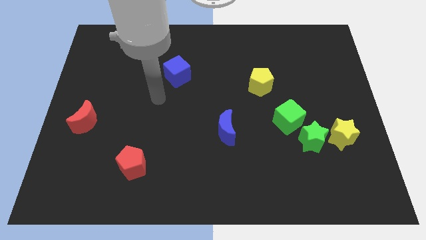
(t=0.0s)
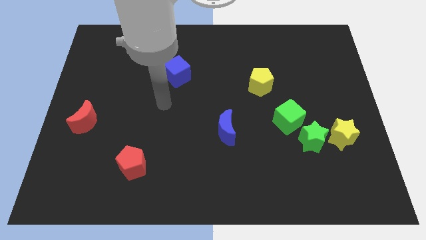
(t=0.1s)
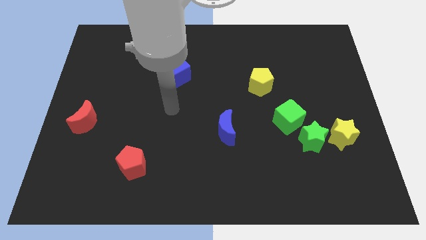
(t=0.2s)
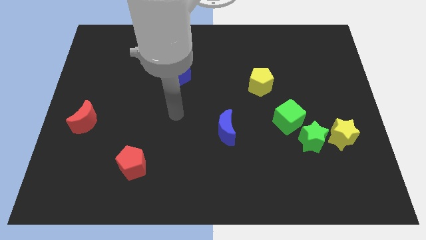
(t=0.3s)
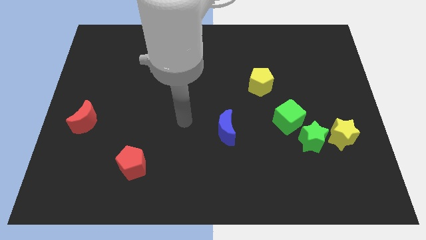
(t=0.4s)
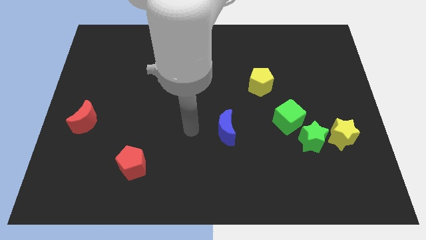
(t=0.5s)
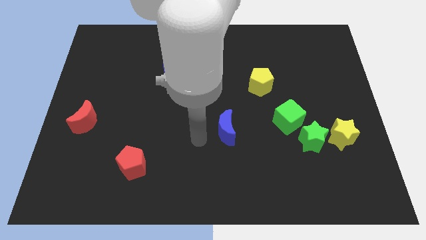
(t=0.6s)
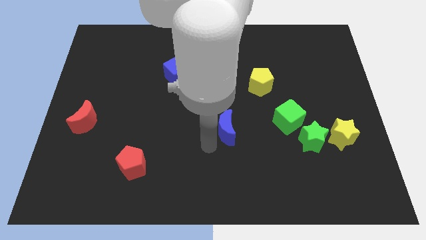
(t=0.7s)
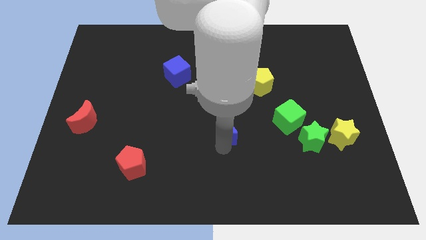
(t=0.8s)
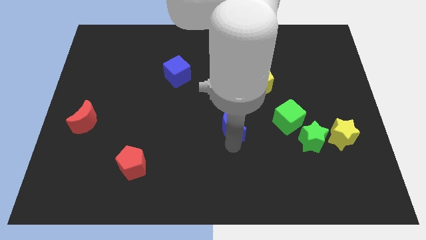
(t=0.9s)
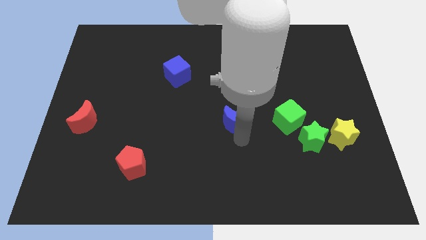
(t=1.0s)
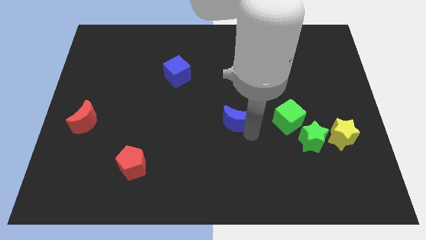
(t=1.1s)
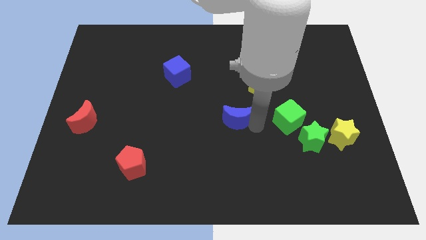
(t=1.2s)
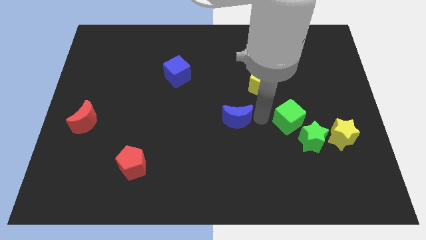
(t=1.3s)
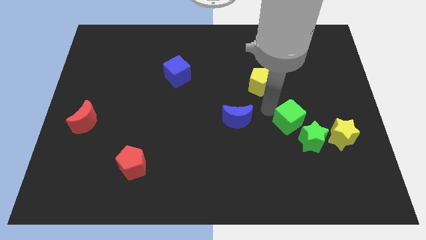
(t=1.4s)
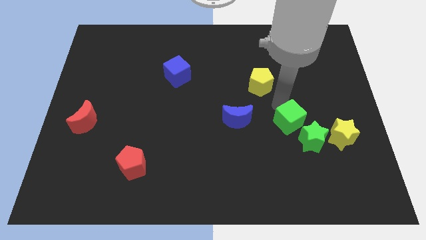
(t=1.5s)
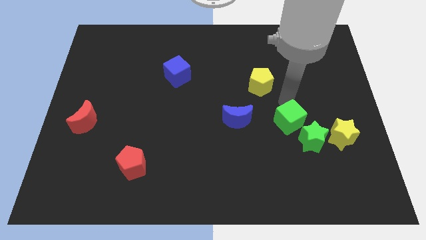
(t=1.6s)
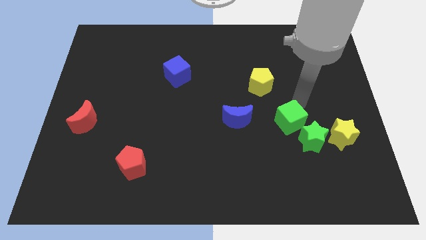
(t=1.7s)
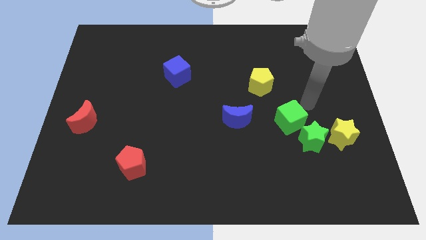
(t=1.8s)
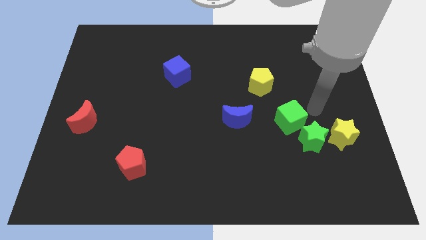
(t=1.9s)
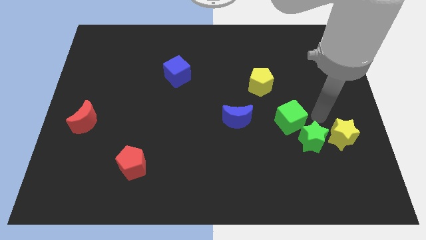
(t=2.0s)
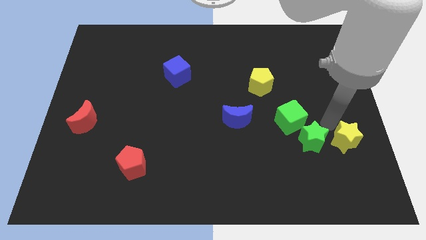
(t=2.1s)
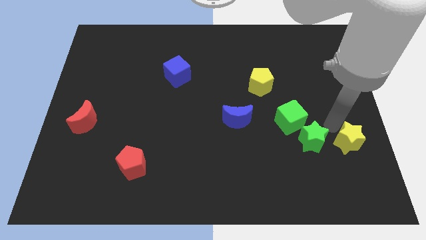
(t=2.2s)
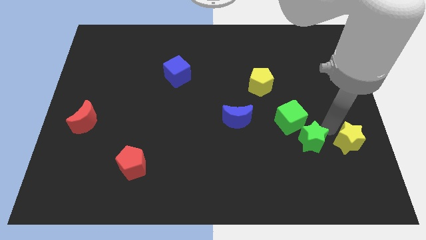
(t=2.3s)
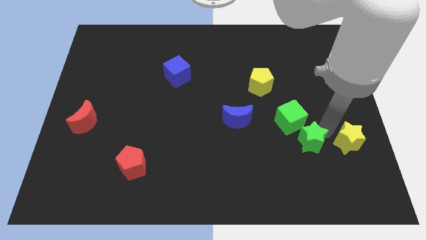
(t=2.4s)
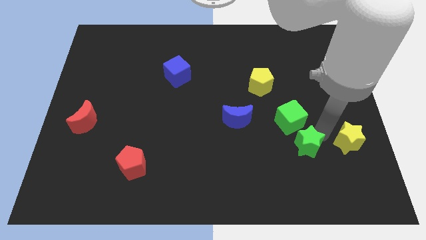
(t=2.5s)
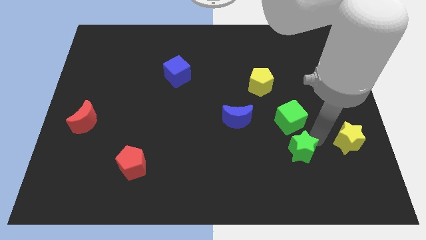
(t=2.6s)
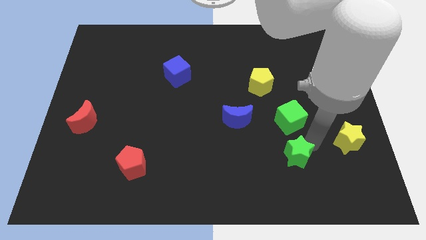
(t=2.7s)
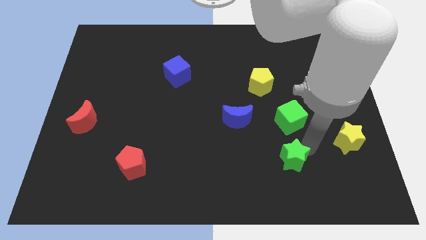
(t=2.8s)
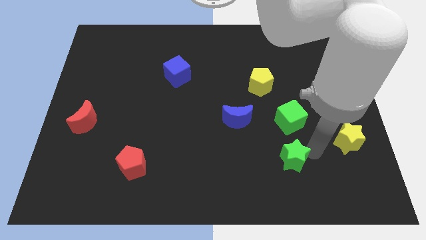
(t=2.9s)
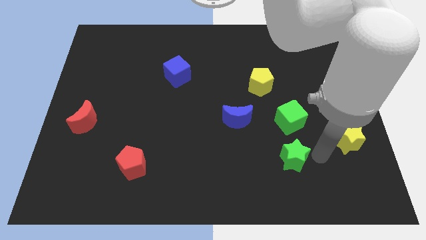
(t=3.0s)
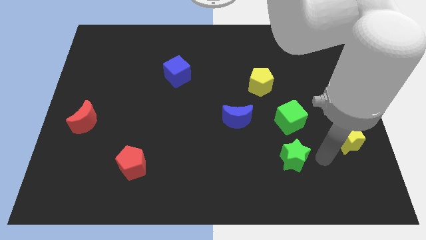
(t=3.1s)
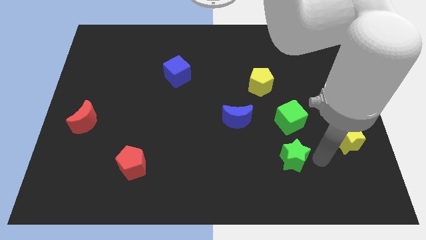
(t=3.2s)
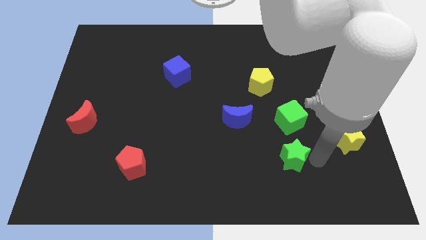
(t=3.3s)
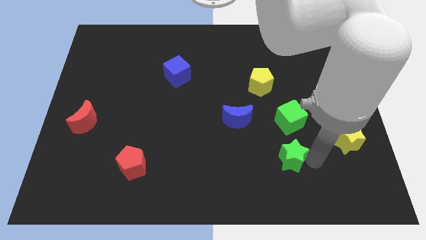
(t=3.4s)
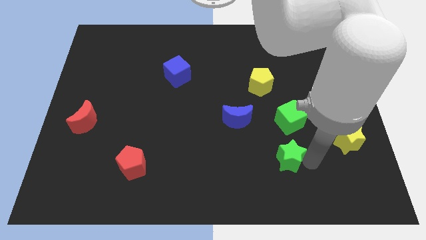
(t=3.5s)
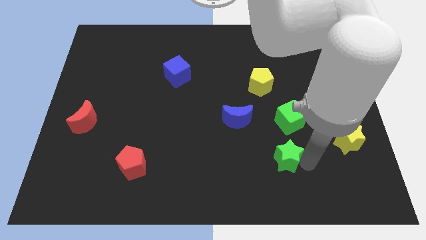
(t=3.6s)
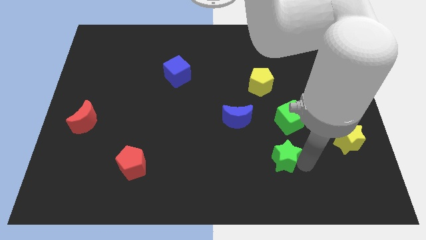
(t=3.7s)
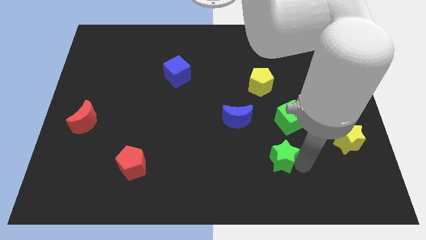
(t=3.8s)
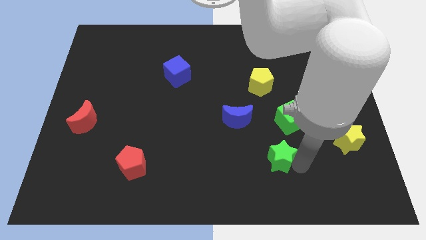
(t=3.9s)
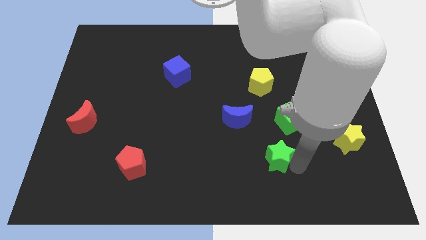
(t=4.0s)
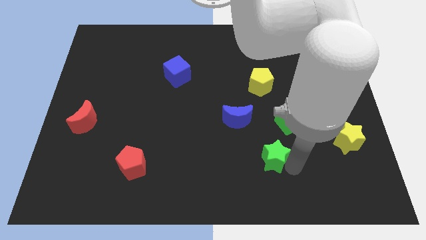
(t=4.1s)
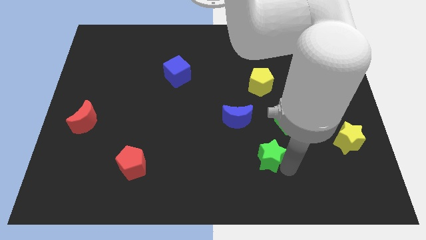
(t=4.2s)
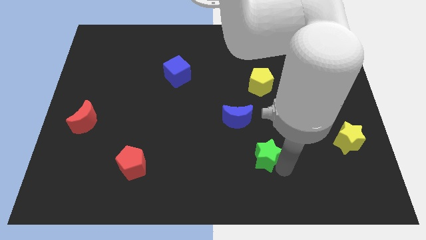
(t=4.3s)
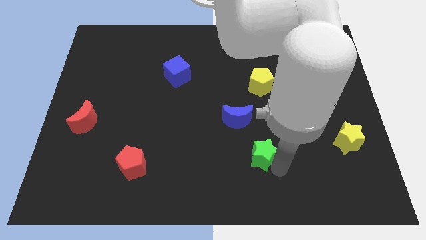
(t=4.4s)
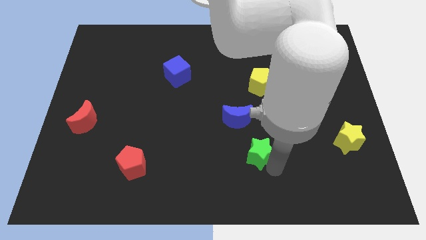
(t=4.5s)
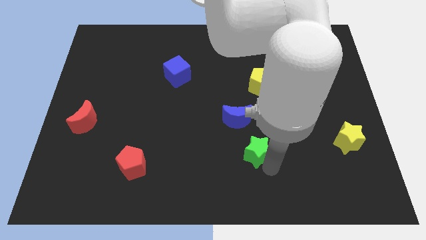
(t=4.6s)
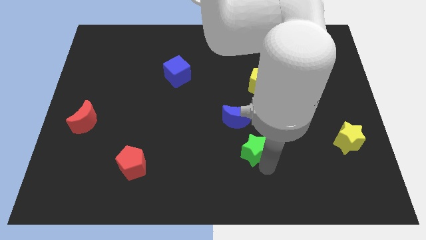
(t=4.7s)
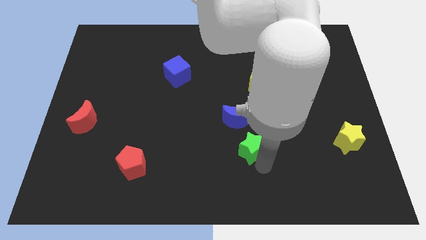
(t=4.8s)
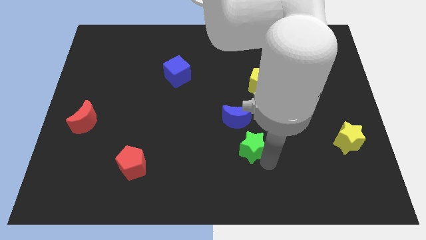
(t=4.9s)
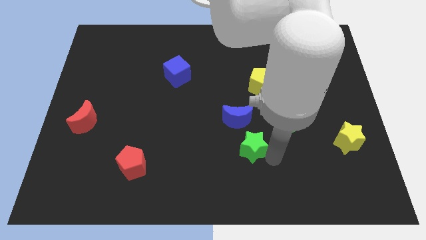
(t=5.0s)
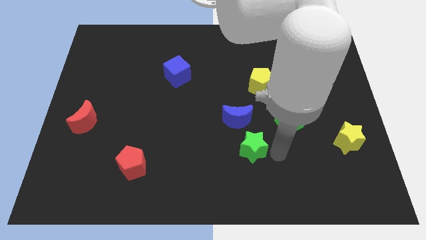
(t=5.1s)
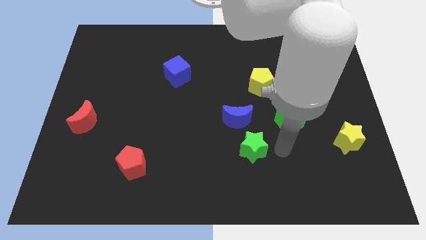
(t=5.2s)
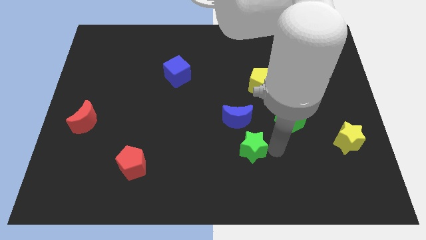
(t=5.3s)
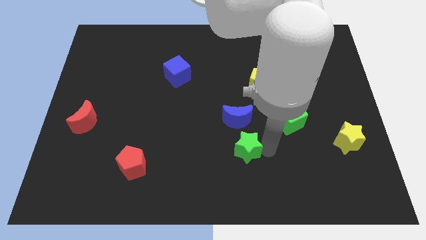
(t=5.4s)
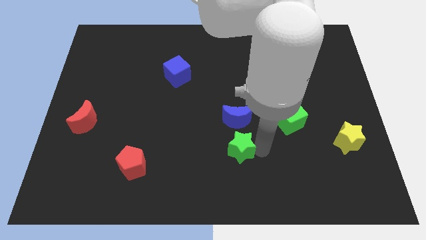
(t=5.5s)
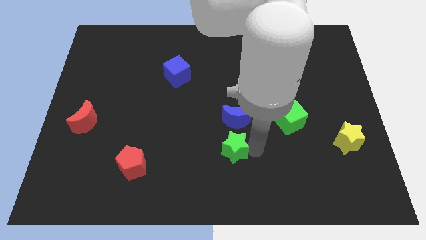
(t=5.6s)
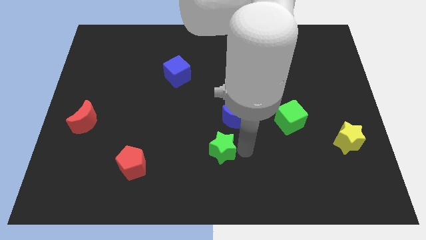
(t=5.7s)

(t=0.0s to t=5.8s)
slide the green star to the left

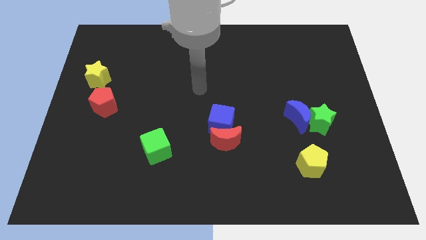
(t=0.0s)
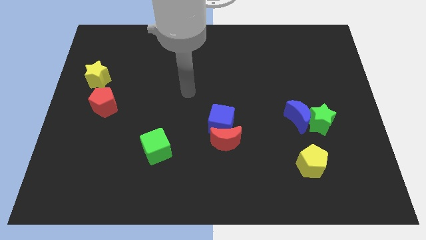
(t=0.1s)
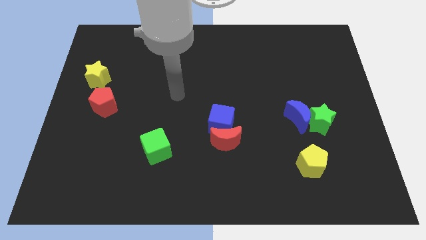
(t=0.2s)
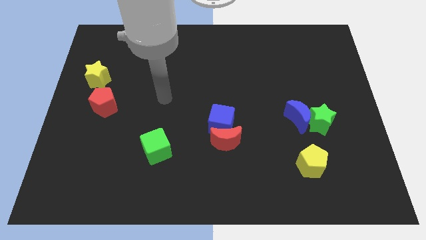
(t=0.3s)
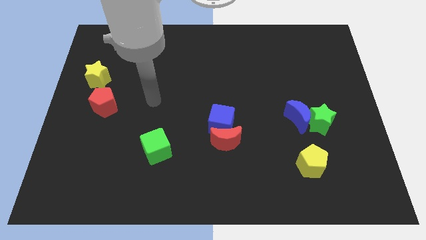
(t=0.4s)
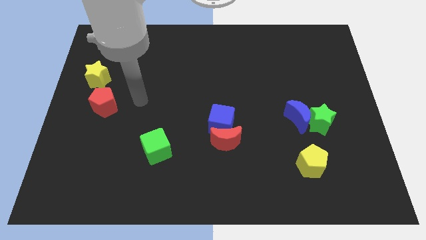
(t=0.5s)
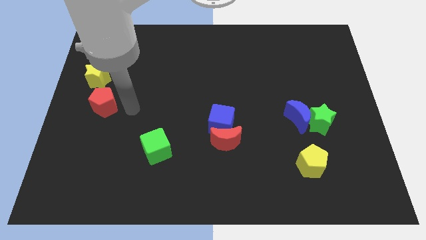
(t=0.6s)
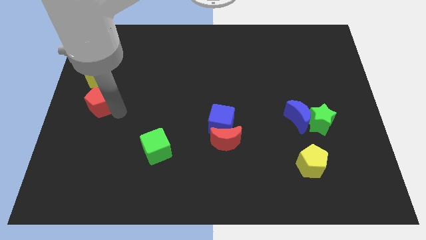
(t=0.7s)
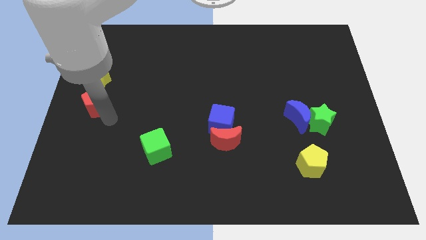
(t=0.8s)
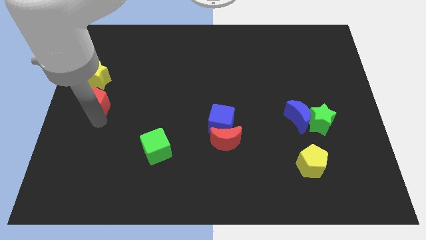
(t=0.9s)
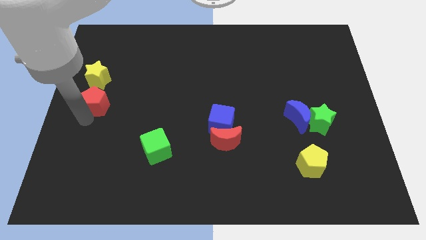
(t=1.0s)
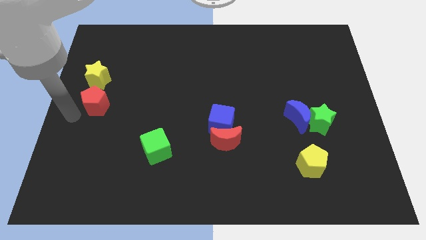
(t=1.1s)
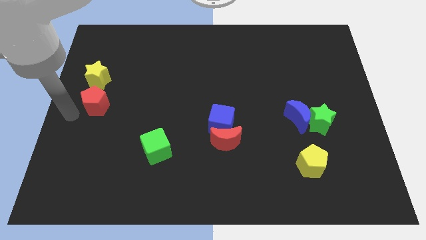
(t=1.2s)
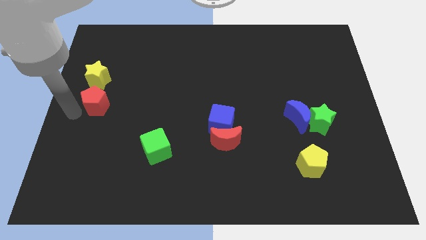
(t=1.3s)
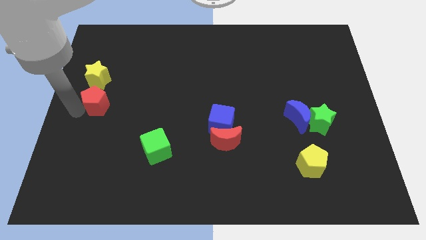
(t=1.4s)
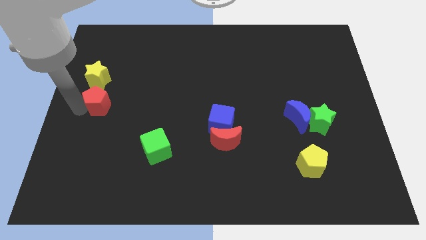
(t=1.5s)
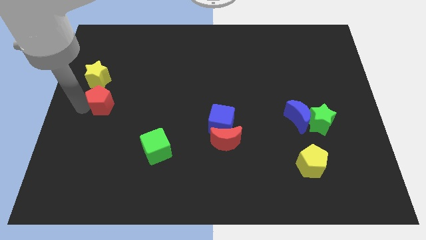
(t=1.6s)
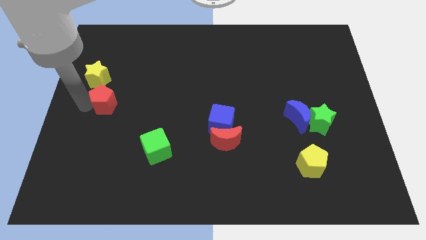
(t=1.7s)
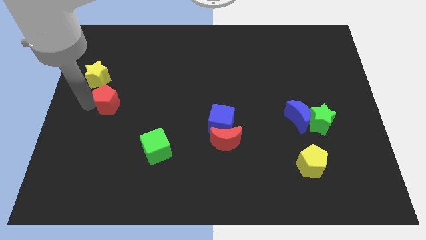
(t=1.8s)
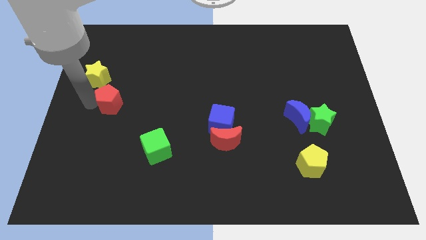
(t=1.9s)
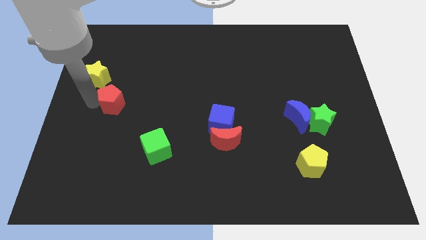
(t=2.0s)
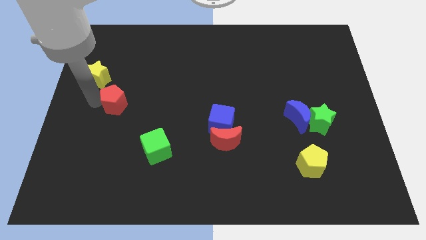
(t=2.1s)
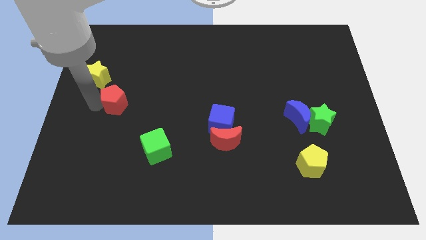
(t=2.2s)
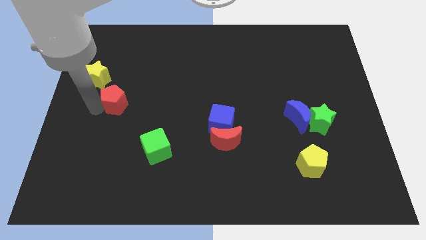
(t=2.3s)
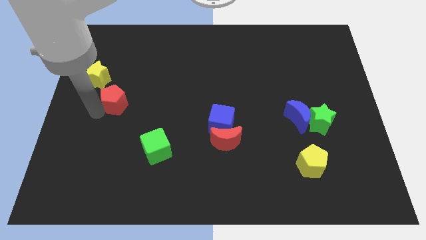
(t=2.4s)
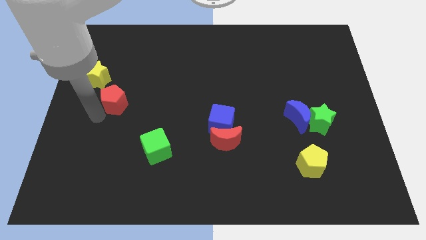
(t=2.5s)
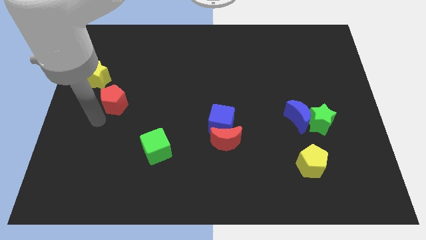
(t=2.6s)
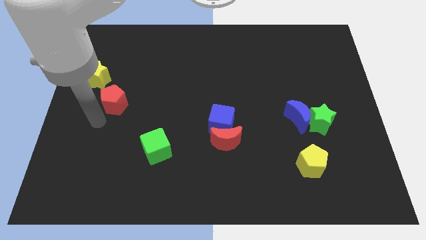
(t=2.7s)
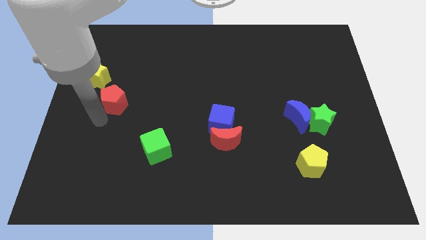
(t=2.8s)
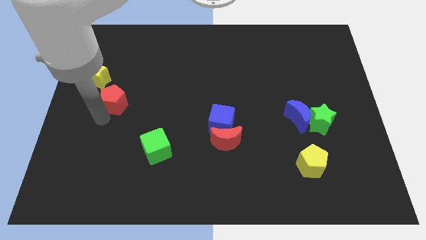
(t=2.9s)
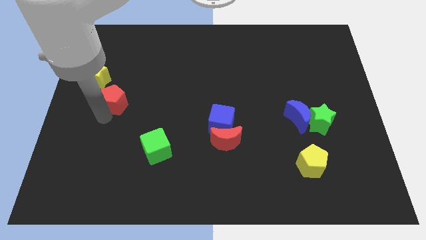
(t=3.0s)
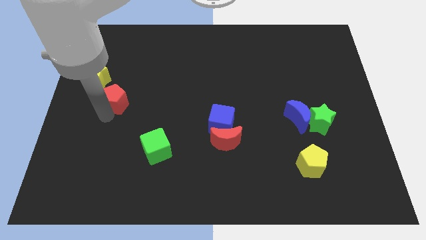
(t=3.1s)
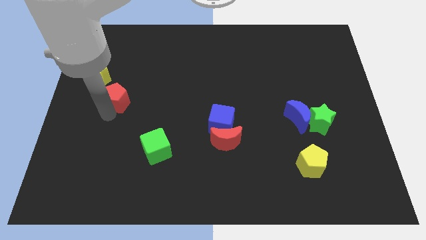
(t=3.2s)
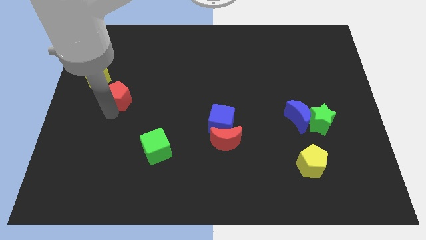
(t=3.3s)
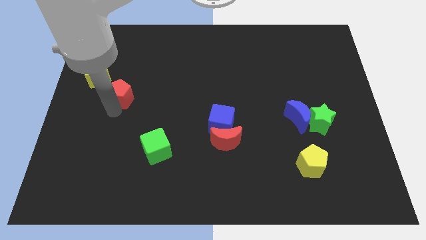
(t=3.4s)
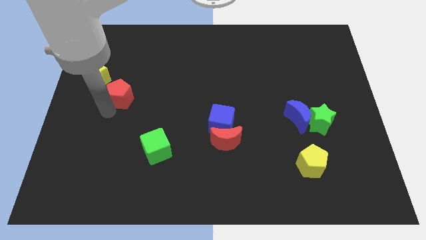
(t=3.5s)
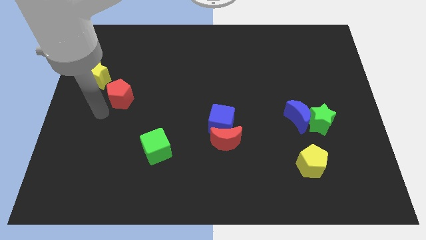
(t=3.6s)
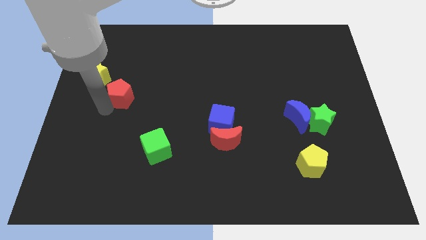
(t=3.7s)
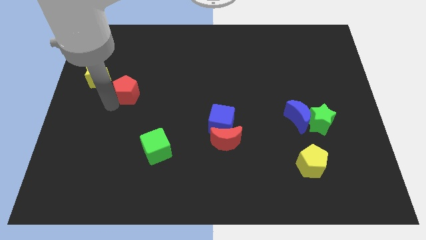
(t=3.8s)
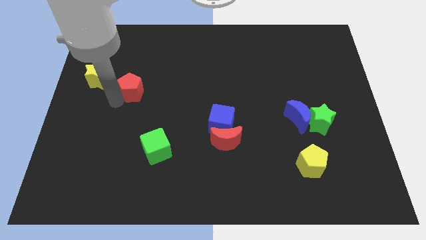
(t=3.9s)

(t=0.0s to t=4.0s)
push the red pentagon up and to the right somewhat
